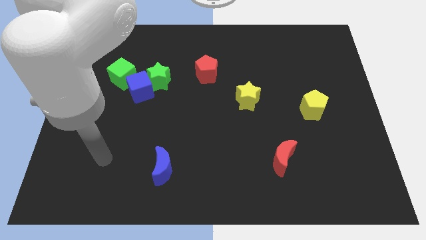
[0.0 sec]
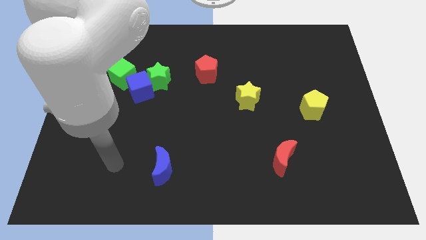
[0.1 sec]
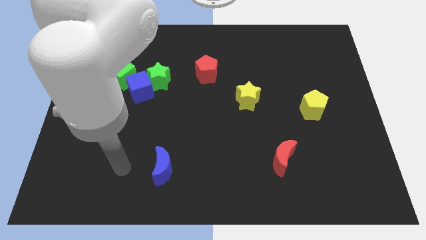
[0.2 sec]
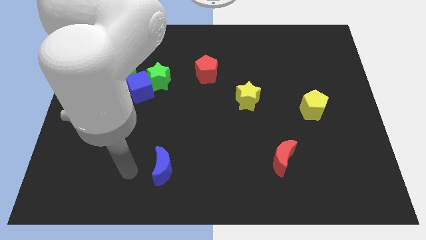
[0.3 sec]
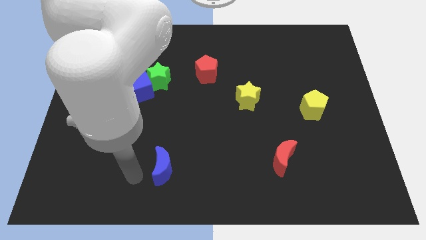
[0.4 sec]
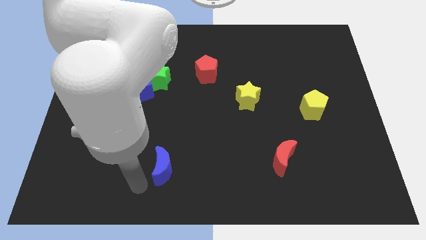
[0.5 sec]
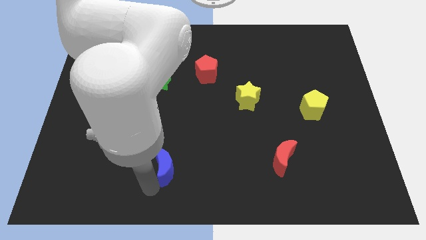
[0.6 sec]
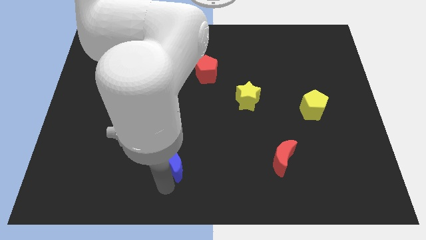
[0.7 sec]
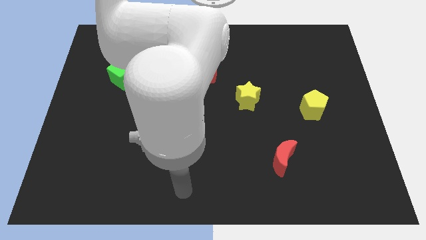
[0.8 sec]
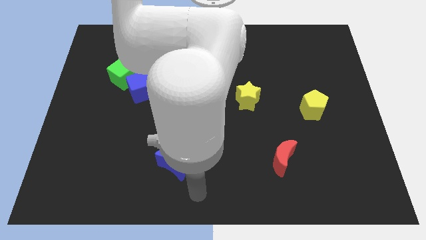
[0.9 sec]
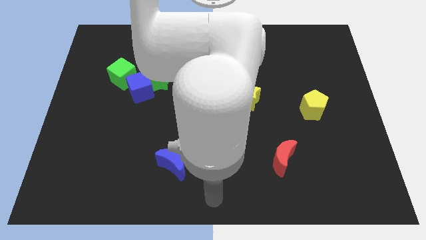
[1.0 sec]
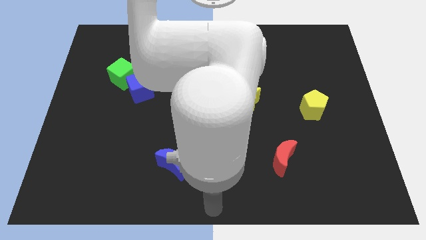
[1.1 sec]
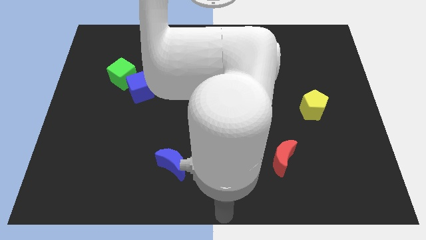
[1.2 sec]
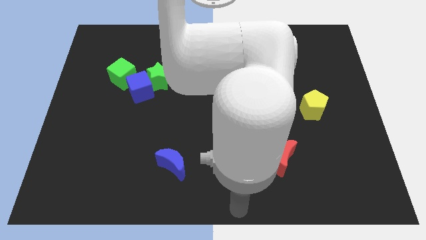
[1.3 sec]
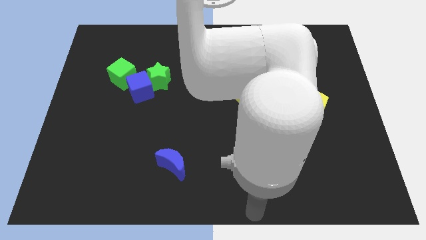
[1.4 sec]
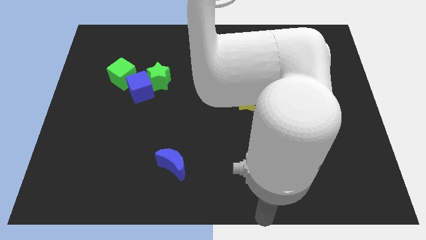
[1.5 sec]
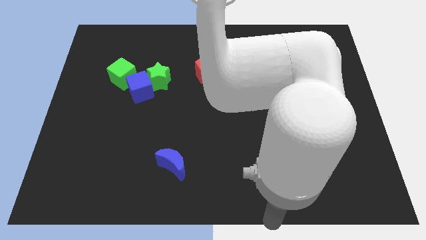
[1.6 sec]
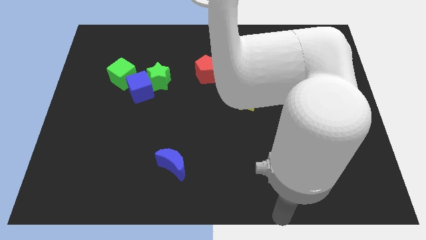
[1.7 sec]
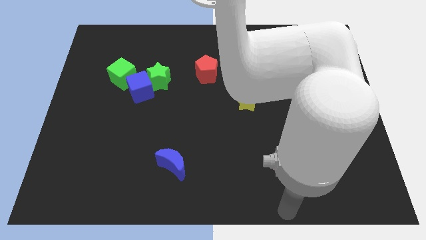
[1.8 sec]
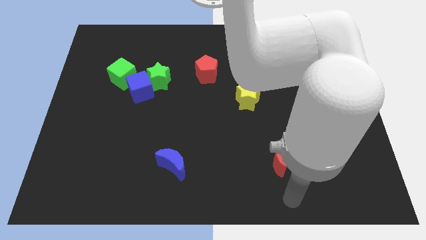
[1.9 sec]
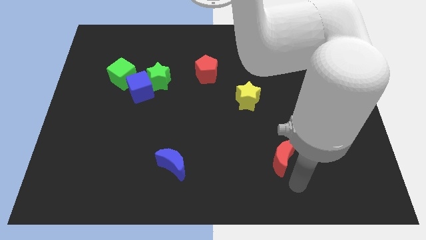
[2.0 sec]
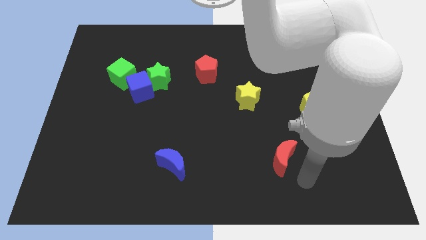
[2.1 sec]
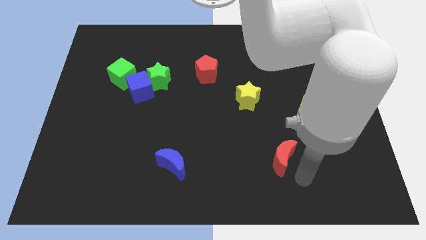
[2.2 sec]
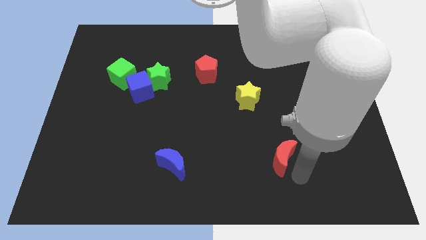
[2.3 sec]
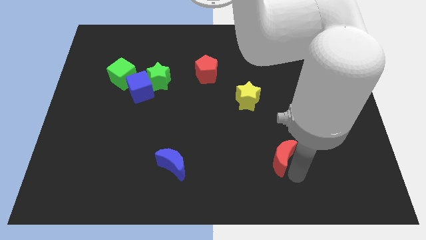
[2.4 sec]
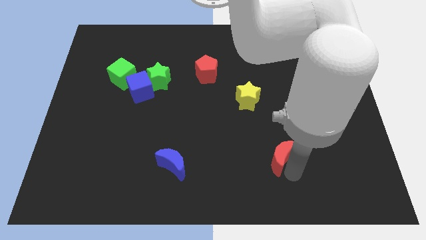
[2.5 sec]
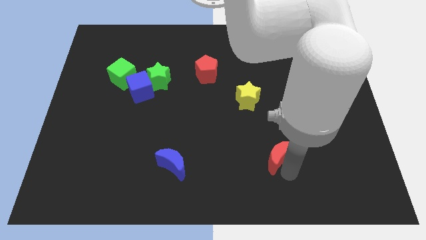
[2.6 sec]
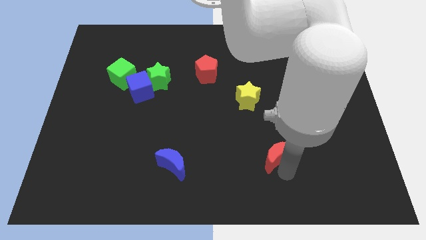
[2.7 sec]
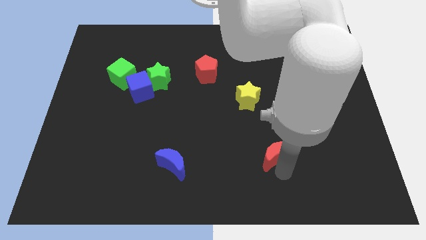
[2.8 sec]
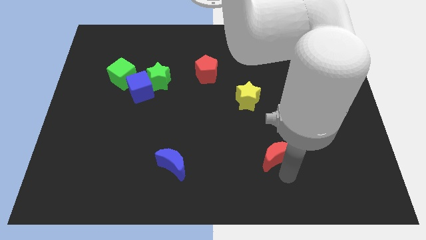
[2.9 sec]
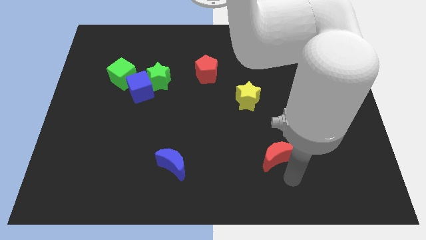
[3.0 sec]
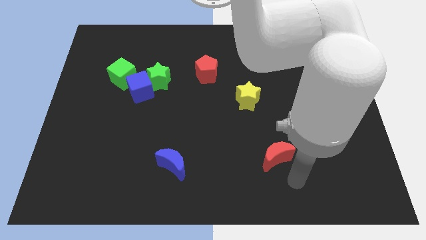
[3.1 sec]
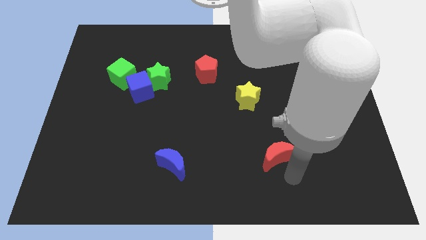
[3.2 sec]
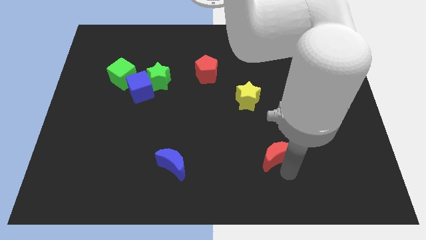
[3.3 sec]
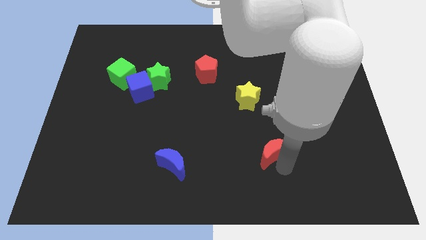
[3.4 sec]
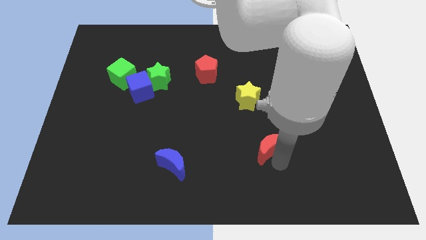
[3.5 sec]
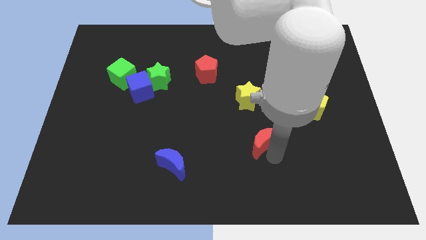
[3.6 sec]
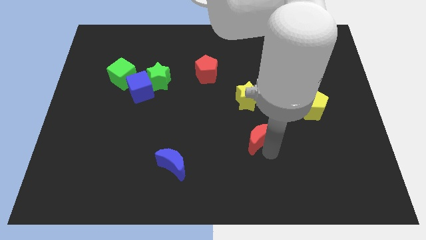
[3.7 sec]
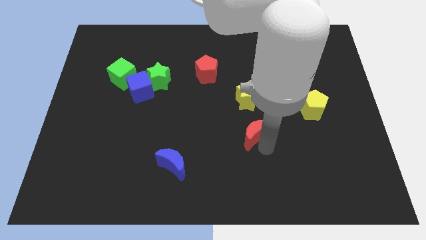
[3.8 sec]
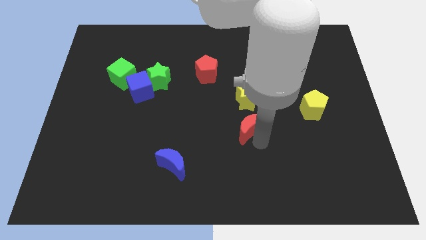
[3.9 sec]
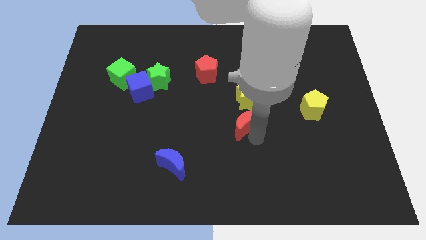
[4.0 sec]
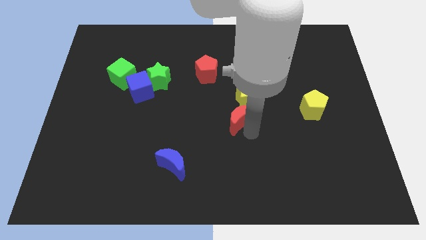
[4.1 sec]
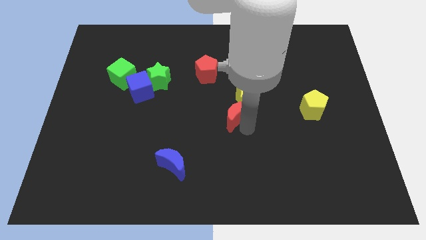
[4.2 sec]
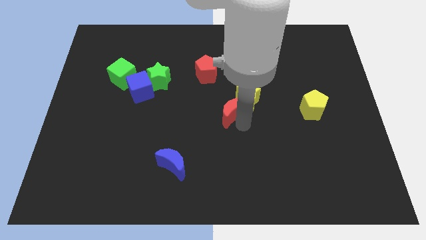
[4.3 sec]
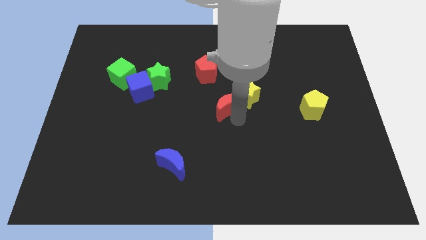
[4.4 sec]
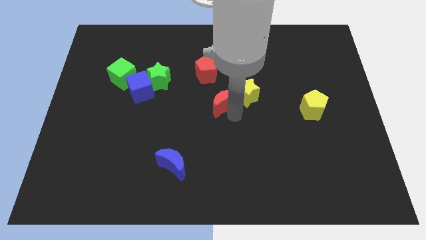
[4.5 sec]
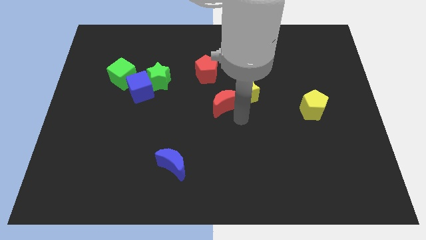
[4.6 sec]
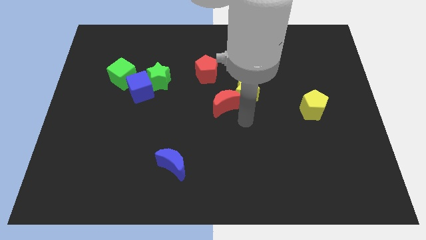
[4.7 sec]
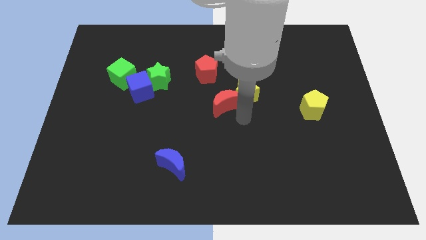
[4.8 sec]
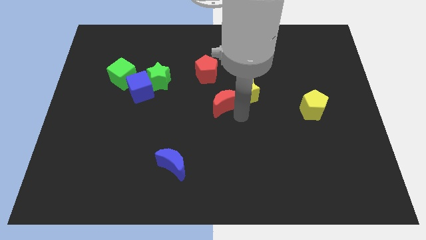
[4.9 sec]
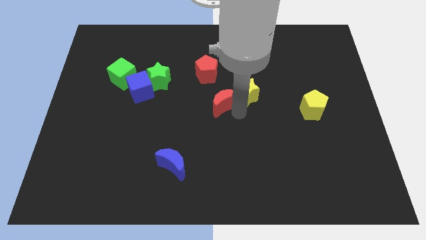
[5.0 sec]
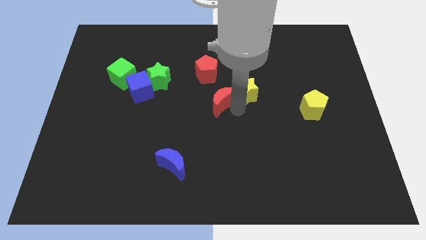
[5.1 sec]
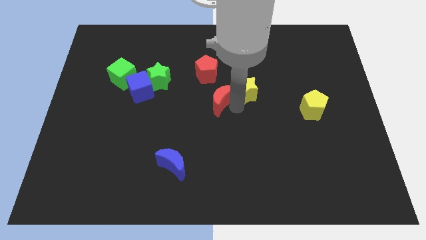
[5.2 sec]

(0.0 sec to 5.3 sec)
slide the red moon up and left

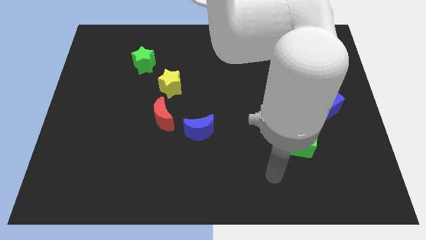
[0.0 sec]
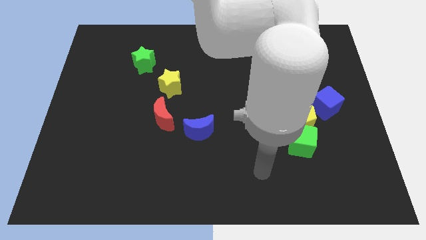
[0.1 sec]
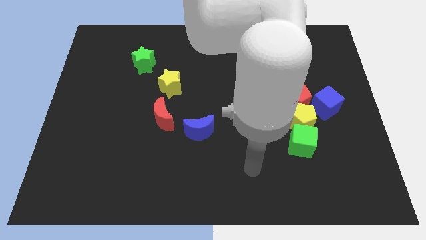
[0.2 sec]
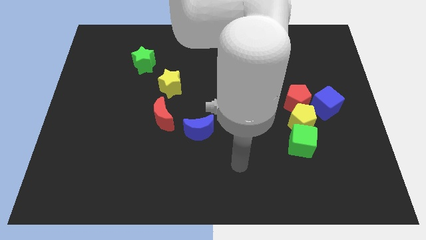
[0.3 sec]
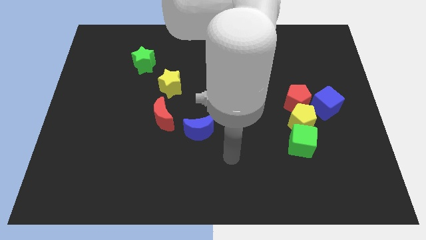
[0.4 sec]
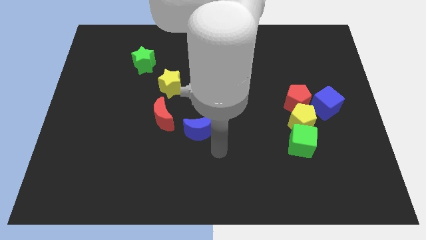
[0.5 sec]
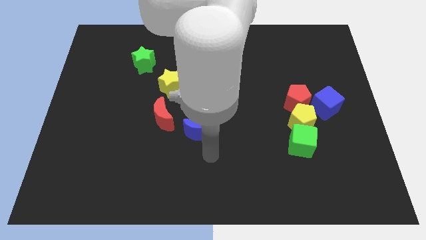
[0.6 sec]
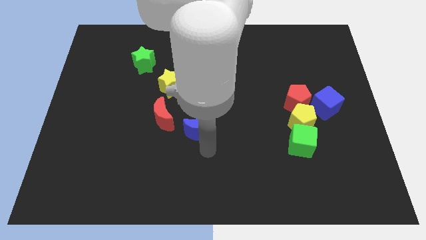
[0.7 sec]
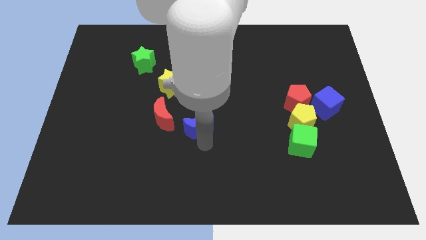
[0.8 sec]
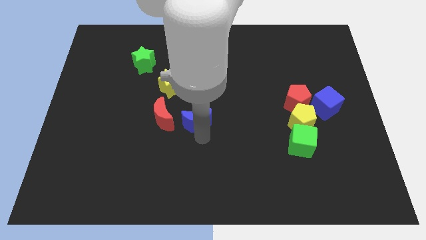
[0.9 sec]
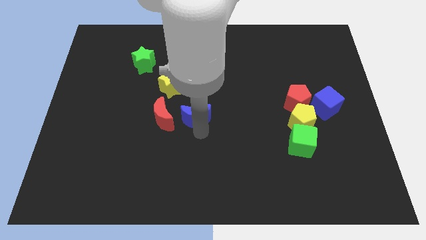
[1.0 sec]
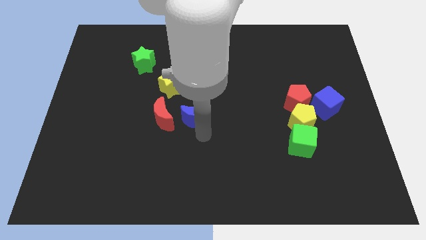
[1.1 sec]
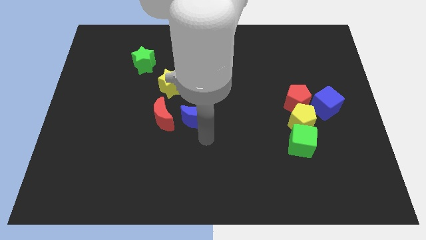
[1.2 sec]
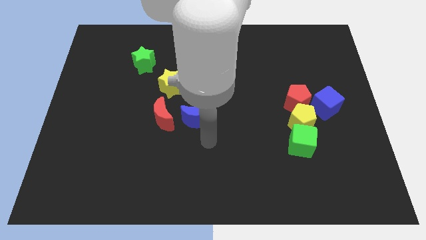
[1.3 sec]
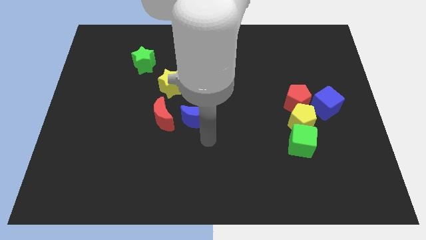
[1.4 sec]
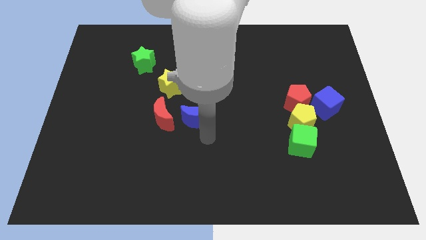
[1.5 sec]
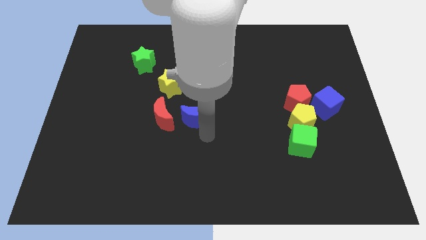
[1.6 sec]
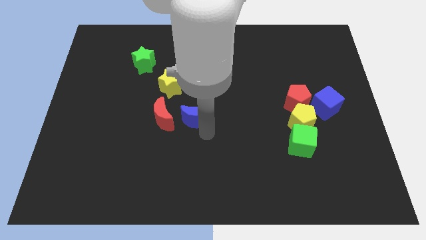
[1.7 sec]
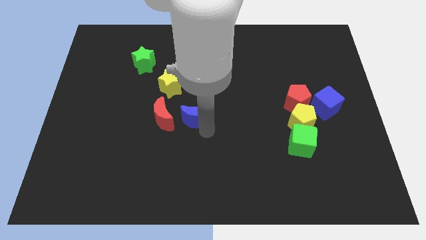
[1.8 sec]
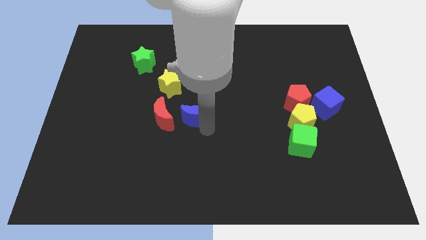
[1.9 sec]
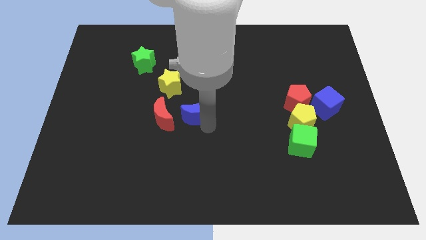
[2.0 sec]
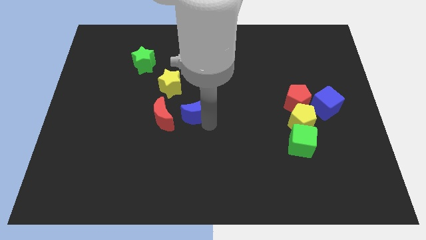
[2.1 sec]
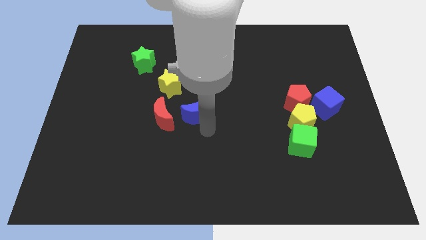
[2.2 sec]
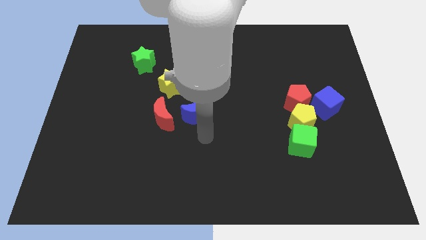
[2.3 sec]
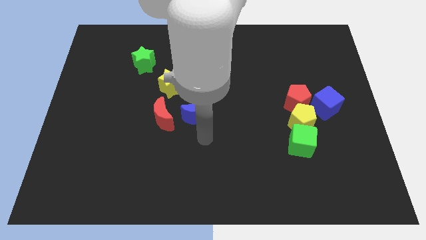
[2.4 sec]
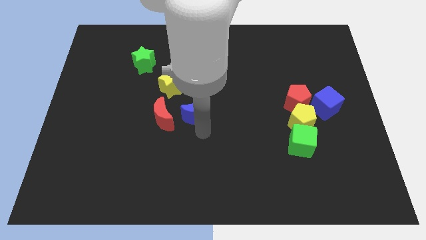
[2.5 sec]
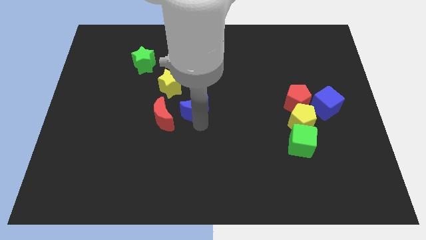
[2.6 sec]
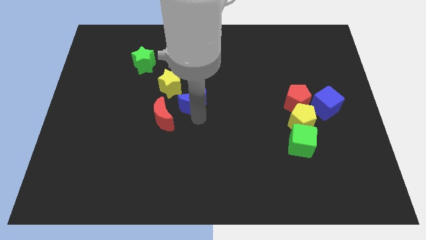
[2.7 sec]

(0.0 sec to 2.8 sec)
move the blue moon a little up
